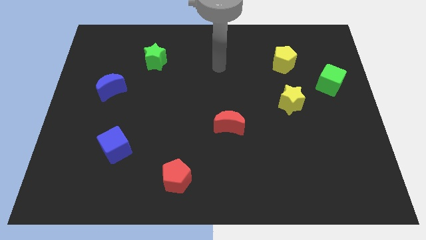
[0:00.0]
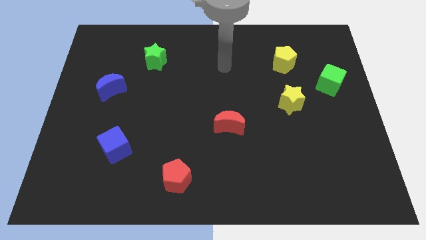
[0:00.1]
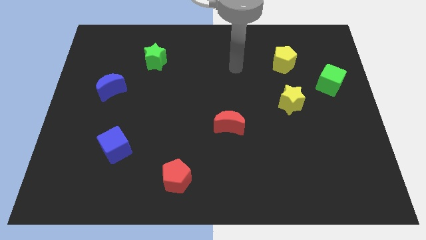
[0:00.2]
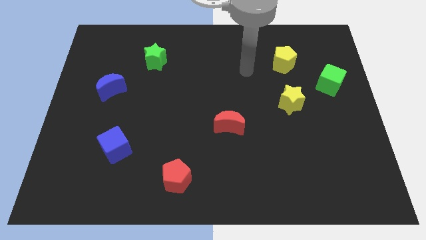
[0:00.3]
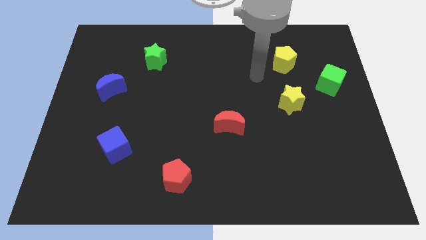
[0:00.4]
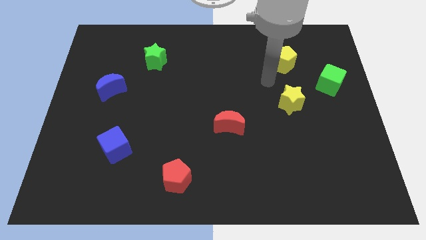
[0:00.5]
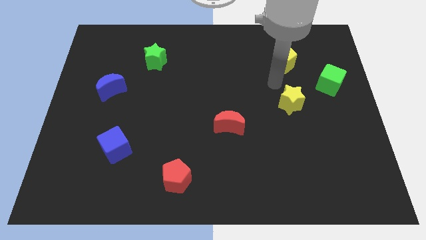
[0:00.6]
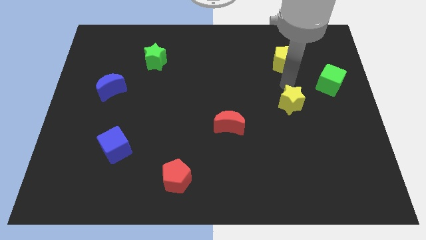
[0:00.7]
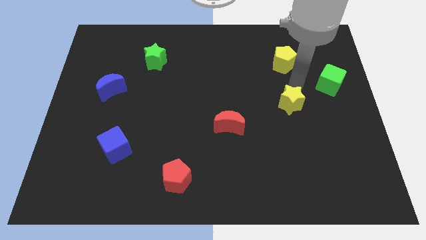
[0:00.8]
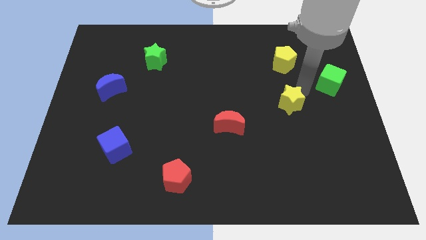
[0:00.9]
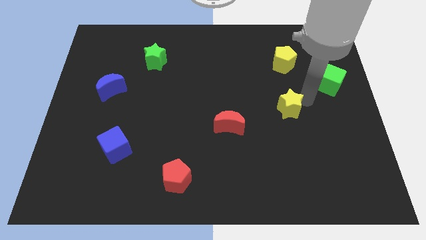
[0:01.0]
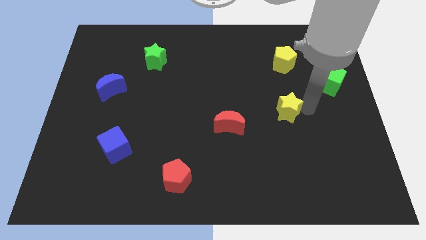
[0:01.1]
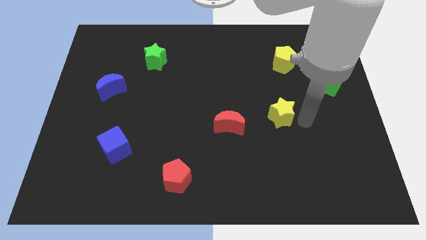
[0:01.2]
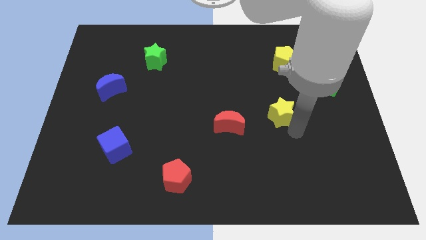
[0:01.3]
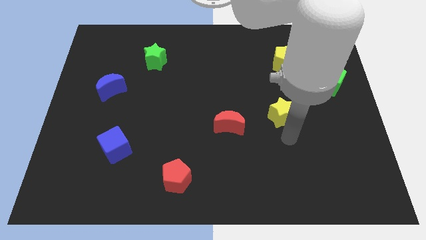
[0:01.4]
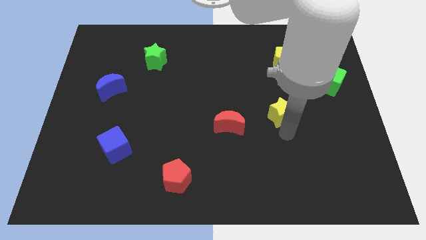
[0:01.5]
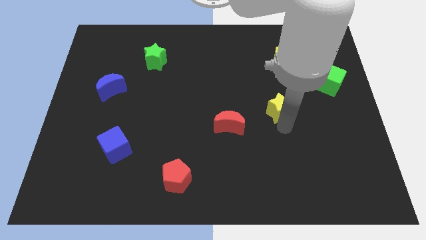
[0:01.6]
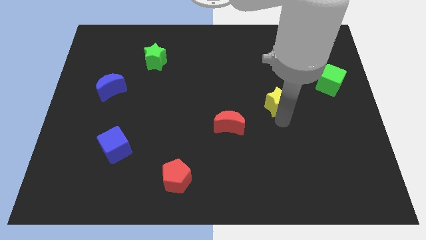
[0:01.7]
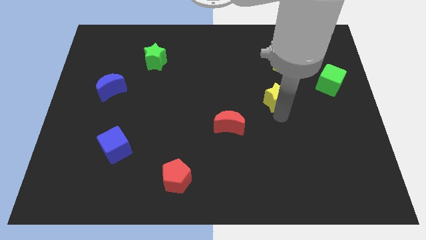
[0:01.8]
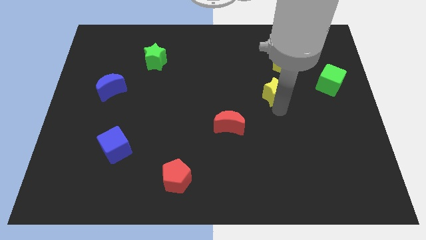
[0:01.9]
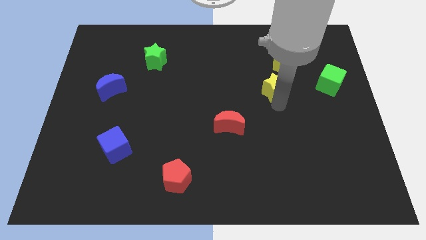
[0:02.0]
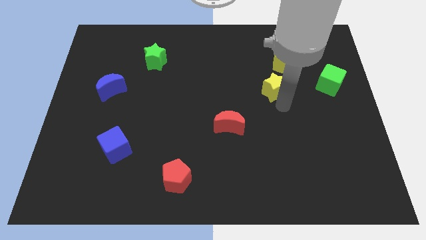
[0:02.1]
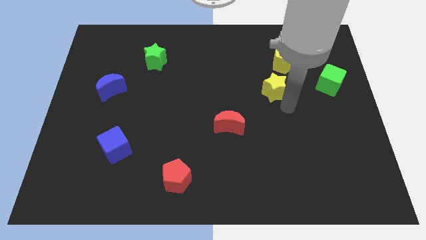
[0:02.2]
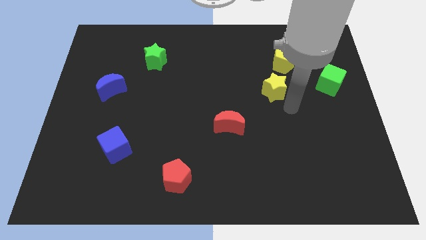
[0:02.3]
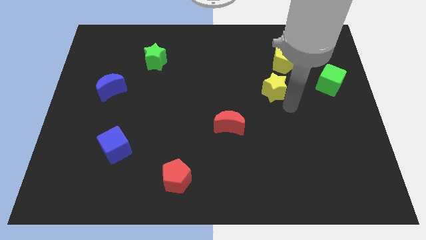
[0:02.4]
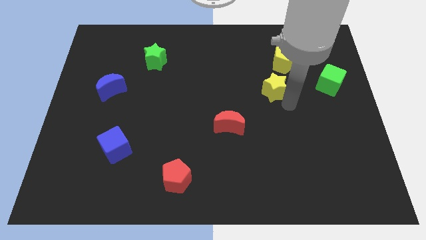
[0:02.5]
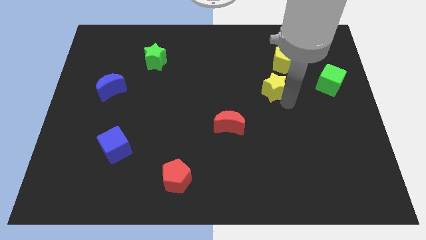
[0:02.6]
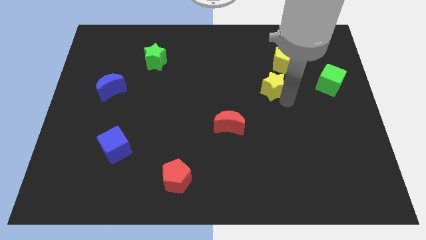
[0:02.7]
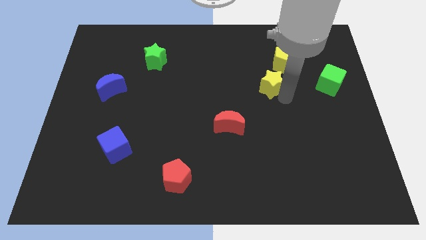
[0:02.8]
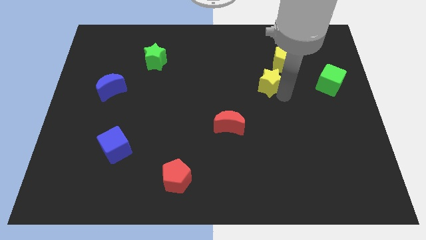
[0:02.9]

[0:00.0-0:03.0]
slightly slide the yellow star up and then left

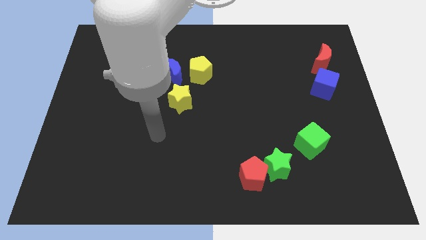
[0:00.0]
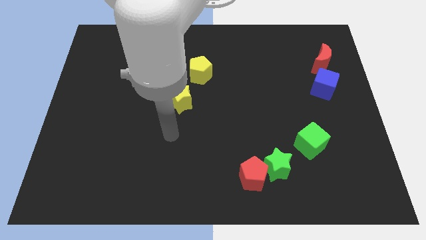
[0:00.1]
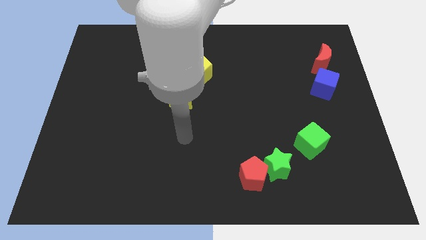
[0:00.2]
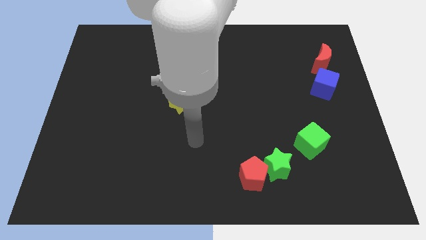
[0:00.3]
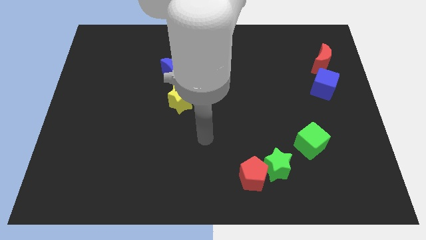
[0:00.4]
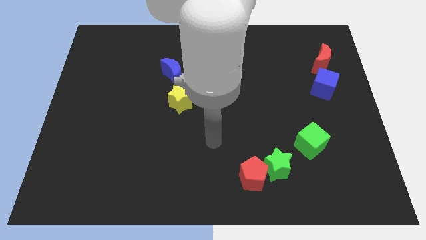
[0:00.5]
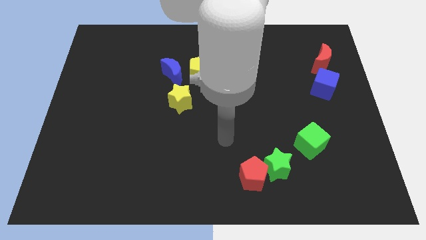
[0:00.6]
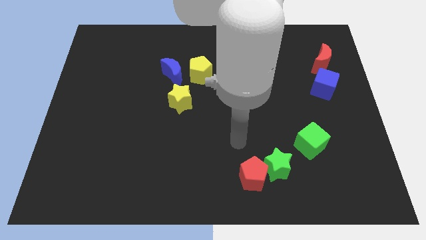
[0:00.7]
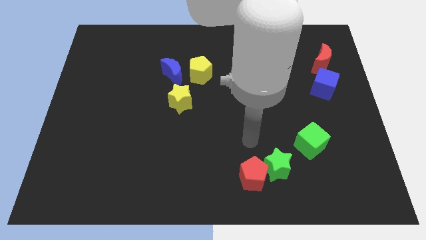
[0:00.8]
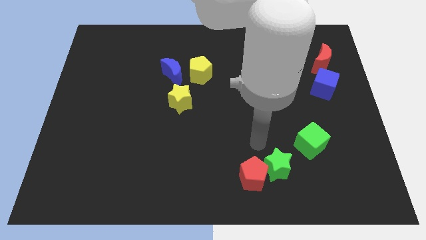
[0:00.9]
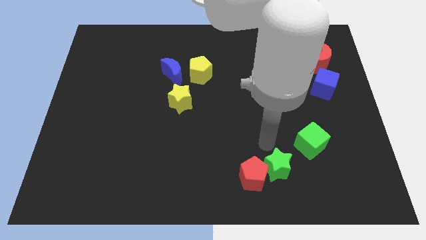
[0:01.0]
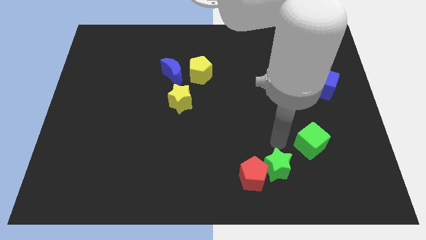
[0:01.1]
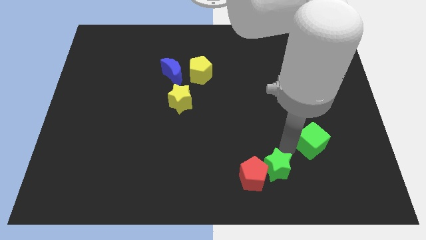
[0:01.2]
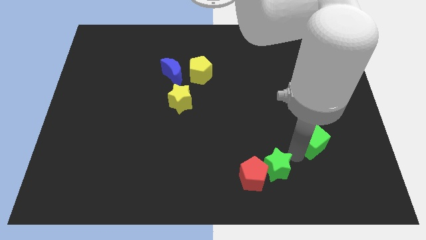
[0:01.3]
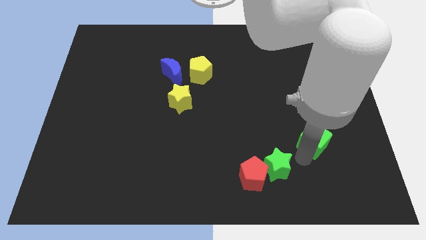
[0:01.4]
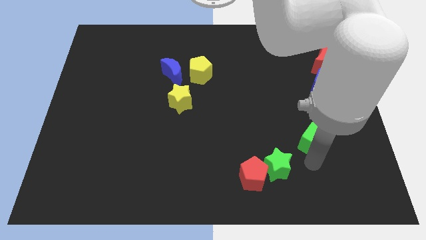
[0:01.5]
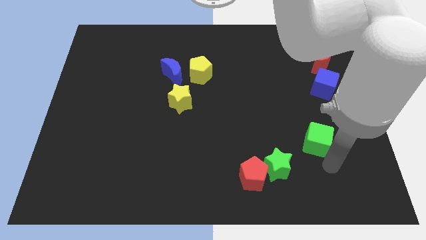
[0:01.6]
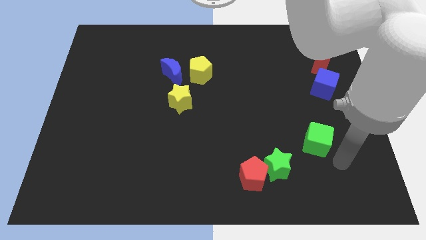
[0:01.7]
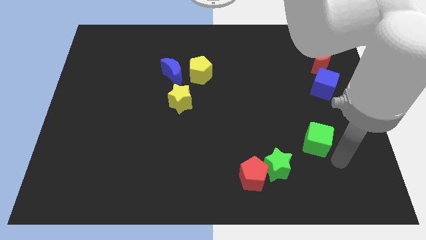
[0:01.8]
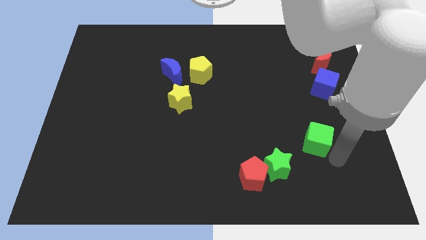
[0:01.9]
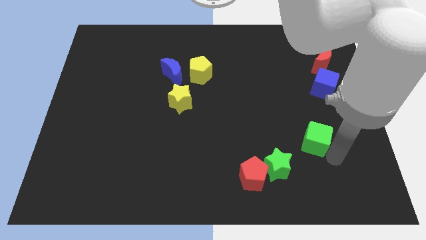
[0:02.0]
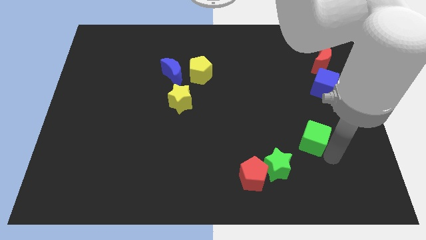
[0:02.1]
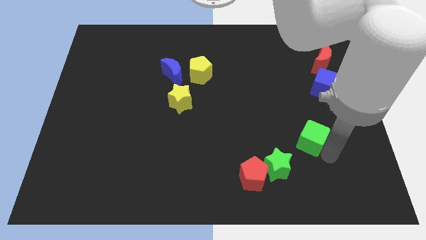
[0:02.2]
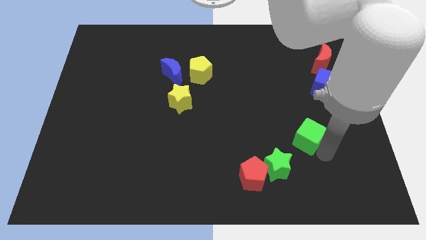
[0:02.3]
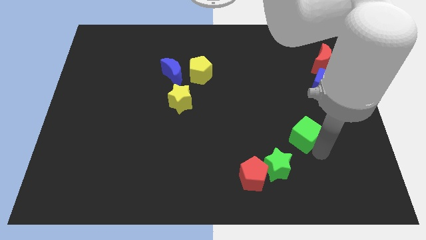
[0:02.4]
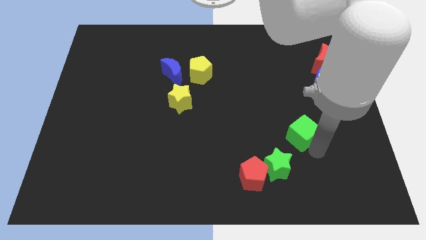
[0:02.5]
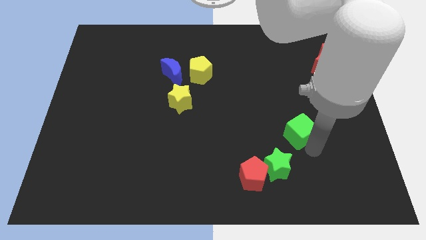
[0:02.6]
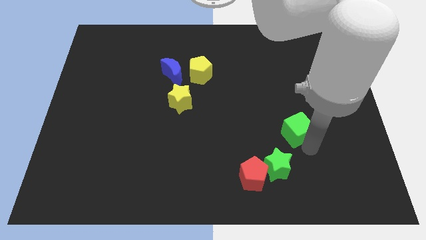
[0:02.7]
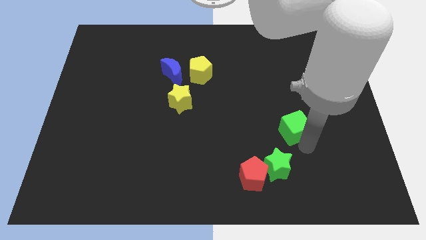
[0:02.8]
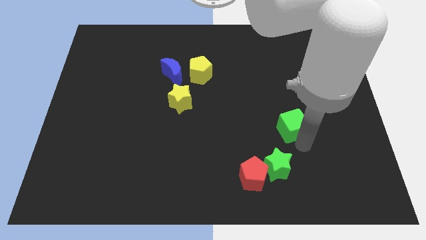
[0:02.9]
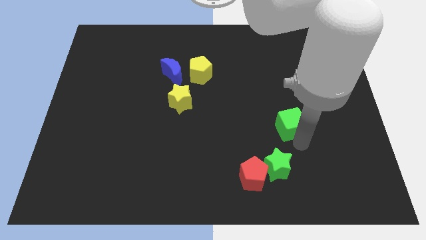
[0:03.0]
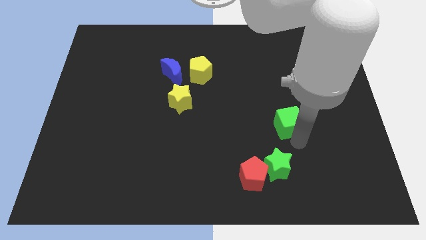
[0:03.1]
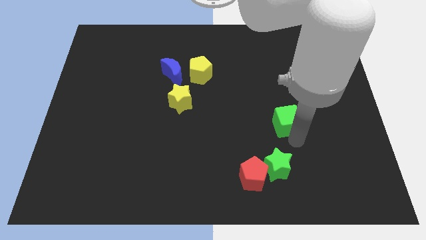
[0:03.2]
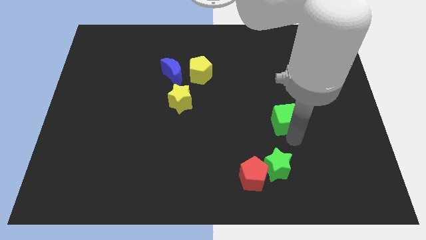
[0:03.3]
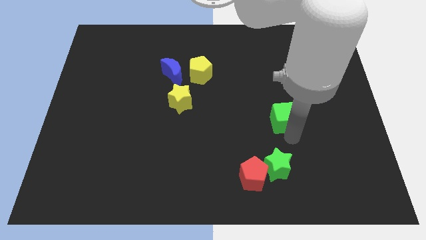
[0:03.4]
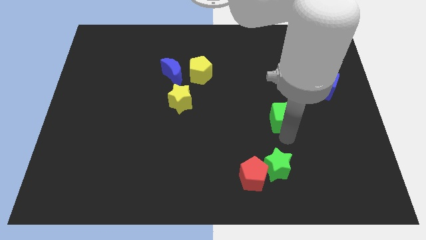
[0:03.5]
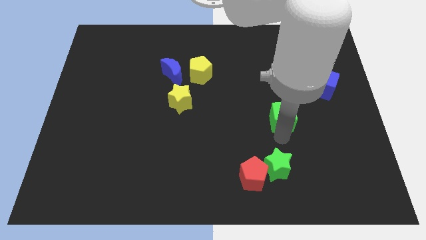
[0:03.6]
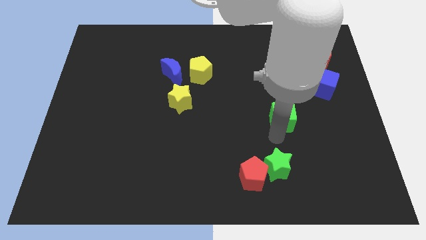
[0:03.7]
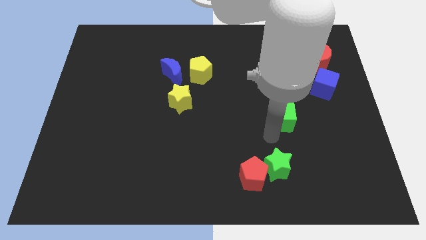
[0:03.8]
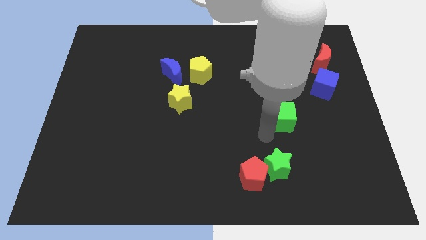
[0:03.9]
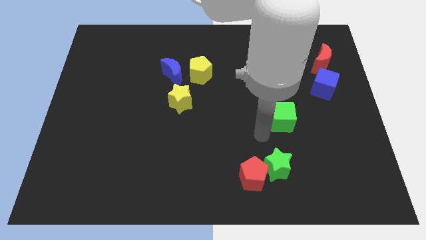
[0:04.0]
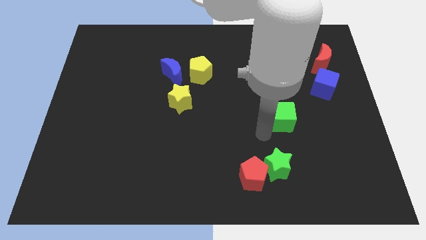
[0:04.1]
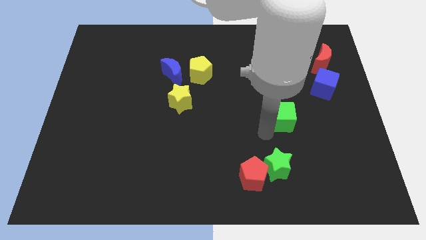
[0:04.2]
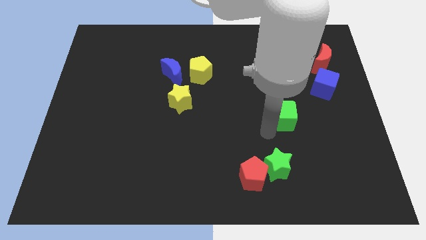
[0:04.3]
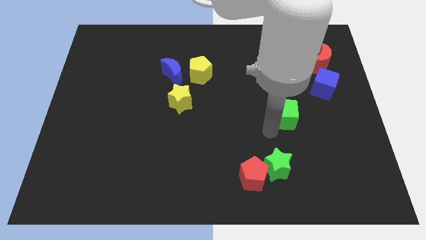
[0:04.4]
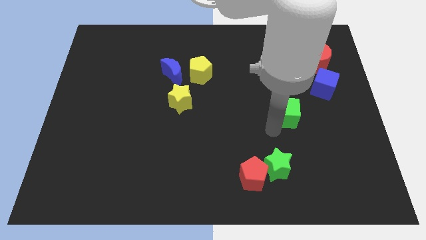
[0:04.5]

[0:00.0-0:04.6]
move the green cube upwards somewhat

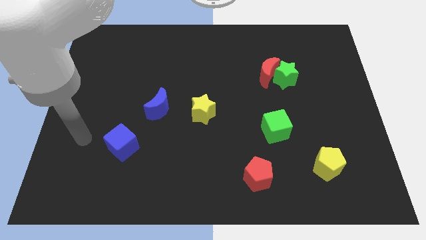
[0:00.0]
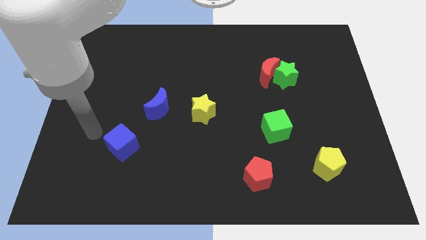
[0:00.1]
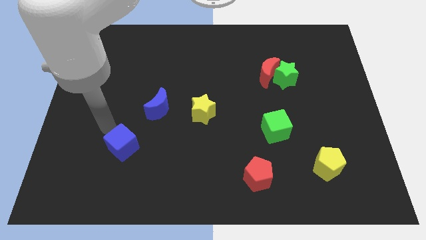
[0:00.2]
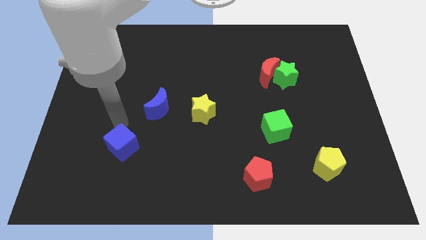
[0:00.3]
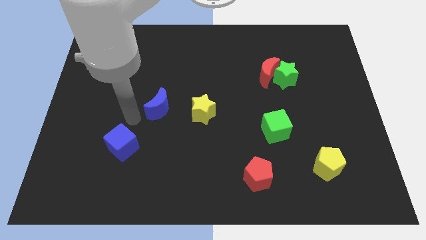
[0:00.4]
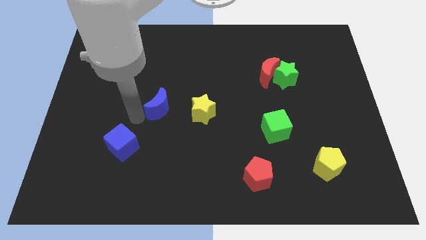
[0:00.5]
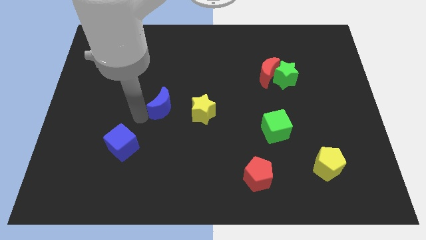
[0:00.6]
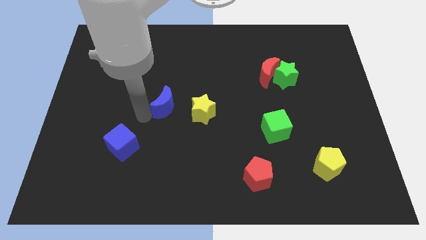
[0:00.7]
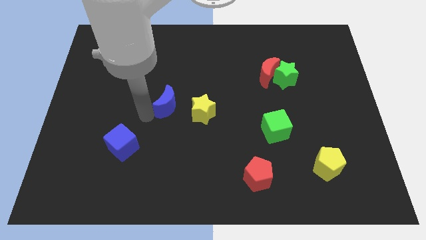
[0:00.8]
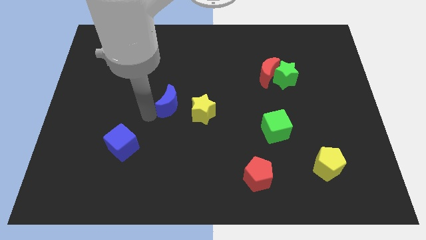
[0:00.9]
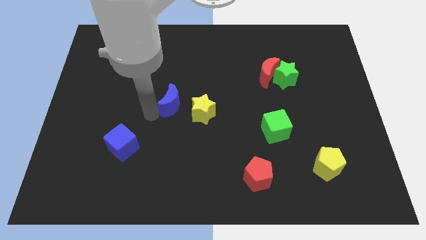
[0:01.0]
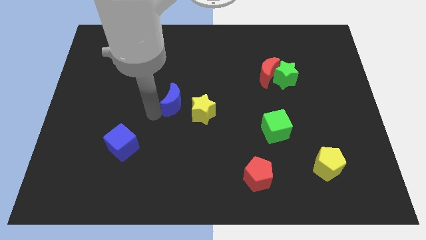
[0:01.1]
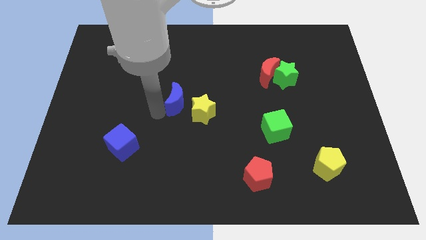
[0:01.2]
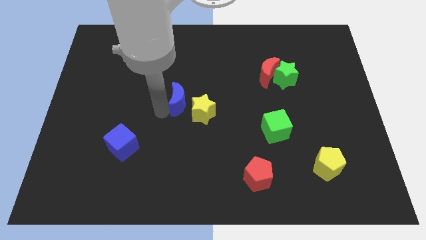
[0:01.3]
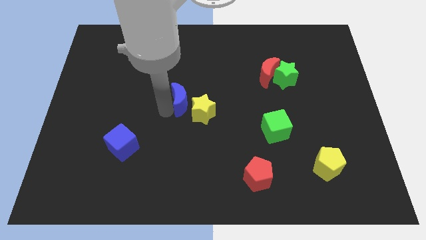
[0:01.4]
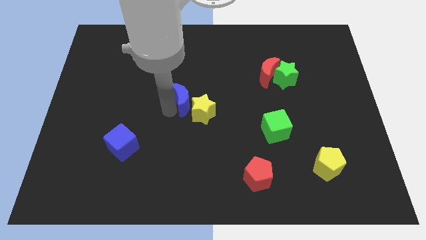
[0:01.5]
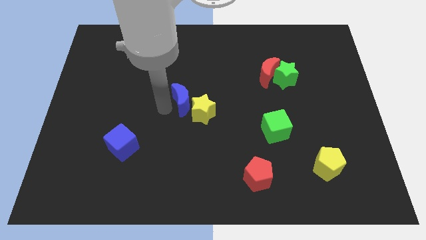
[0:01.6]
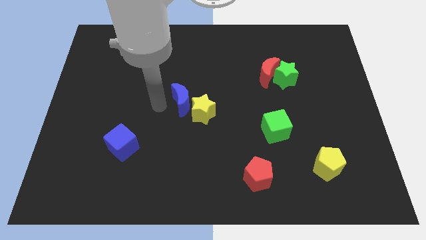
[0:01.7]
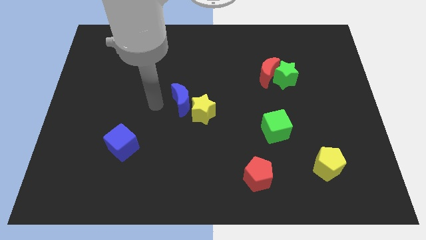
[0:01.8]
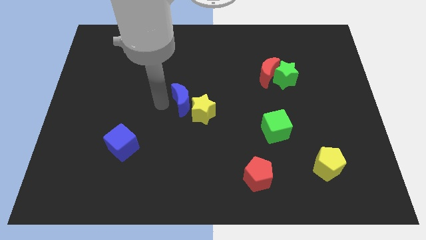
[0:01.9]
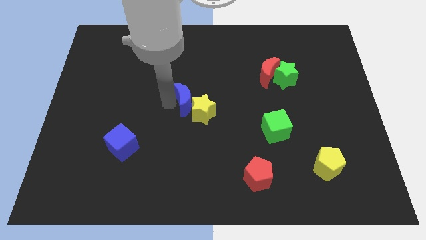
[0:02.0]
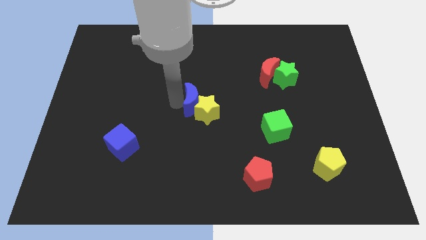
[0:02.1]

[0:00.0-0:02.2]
push the blue moon right a little bit
